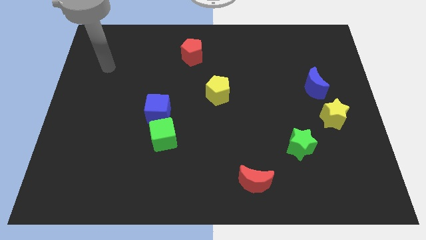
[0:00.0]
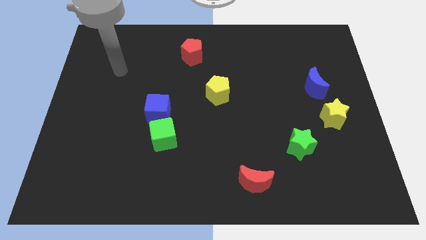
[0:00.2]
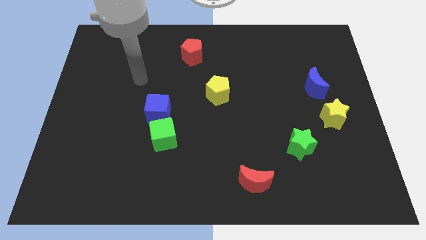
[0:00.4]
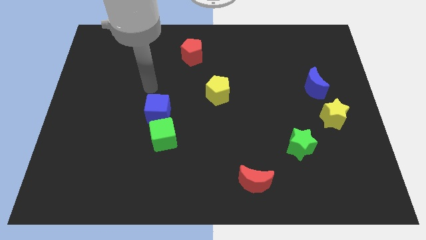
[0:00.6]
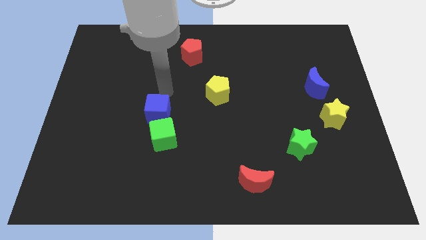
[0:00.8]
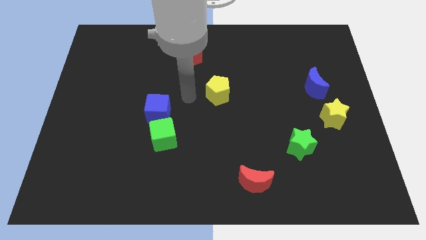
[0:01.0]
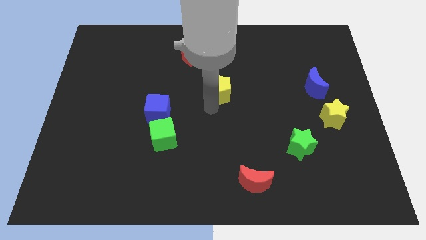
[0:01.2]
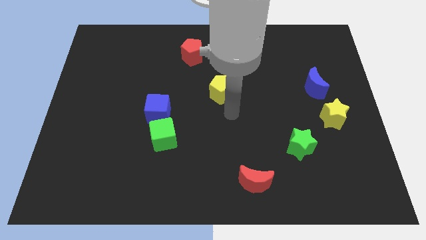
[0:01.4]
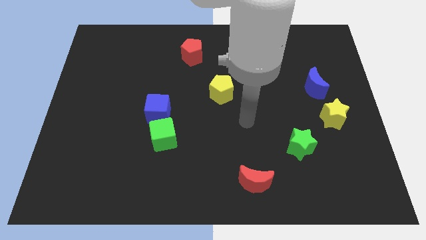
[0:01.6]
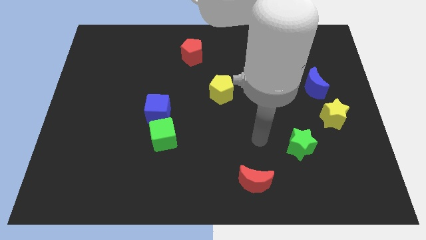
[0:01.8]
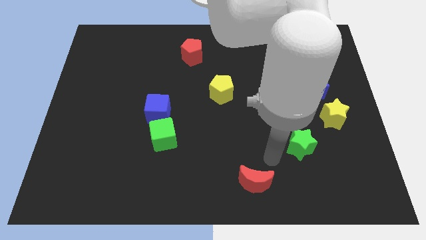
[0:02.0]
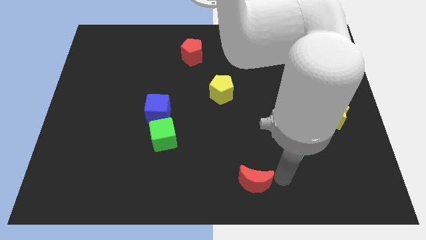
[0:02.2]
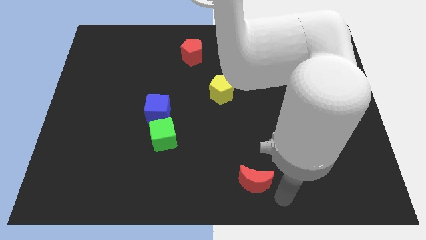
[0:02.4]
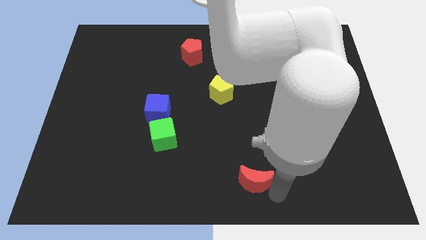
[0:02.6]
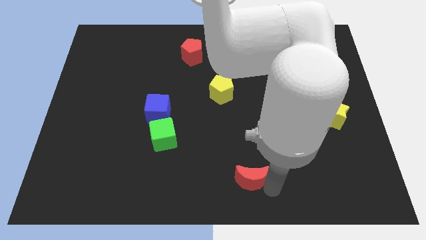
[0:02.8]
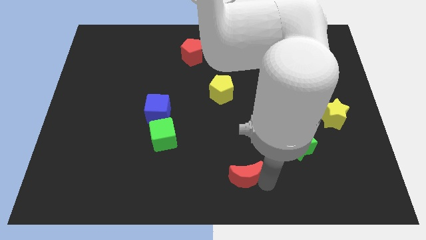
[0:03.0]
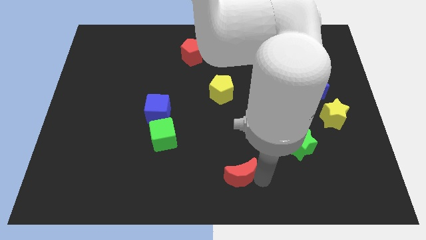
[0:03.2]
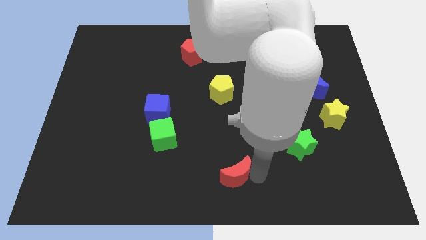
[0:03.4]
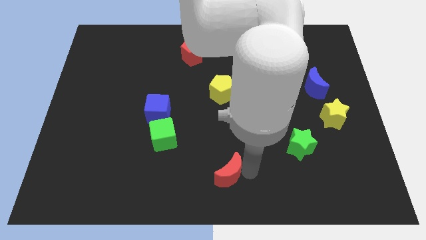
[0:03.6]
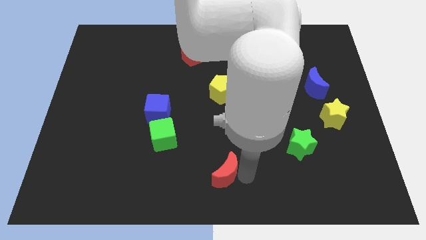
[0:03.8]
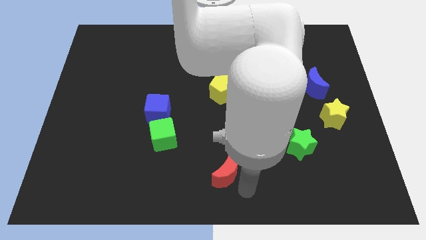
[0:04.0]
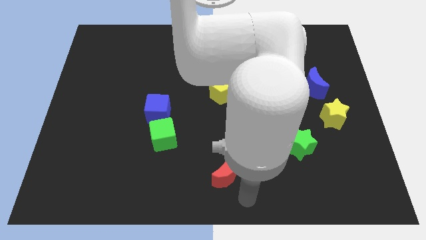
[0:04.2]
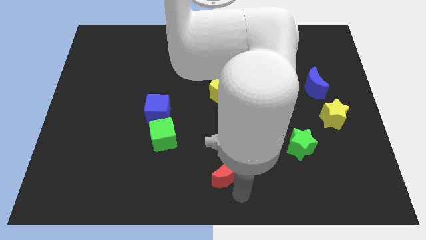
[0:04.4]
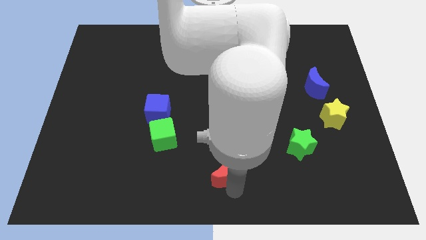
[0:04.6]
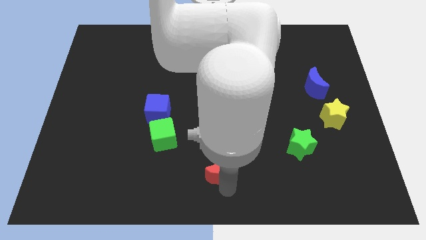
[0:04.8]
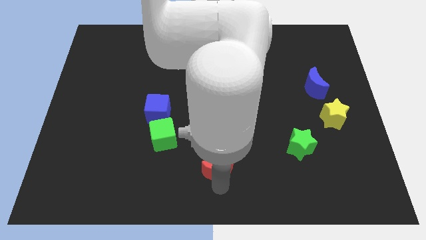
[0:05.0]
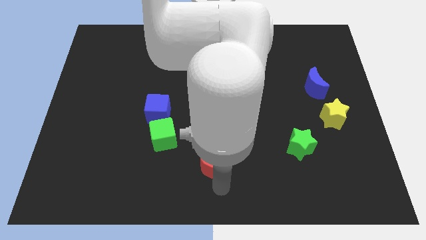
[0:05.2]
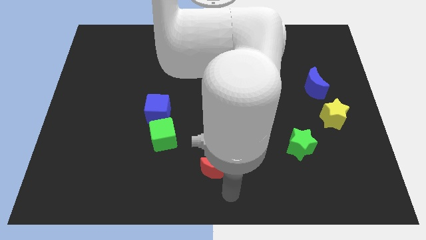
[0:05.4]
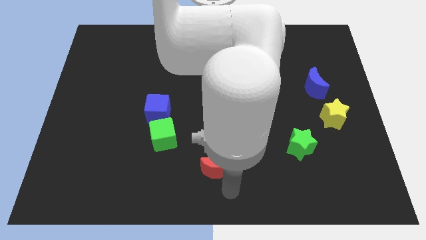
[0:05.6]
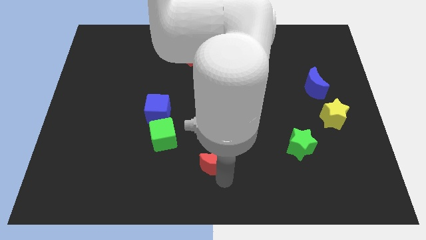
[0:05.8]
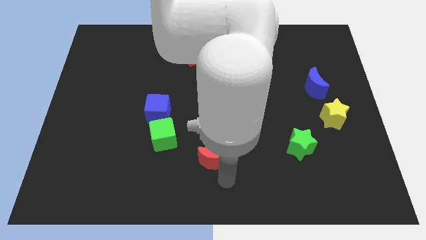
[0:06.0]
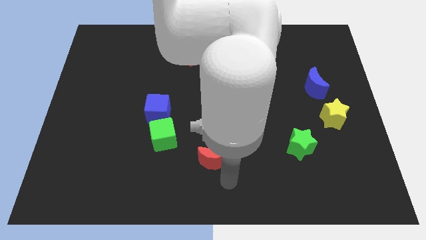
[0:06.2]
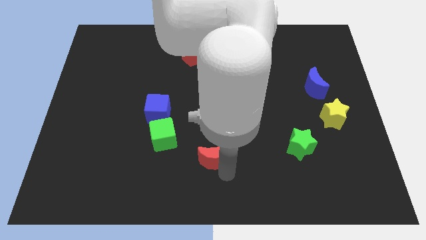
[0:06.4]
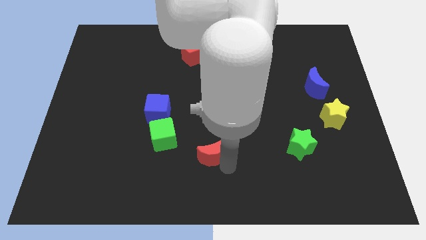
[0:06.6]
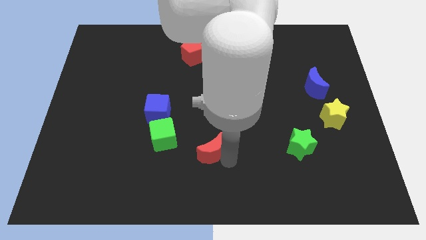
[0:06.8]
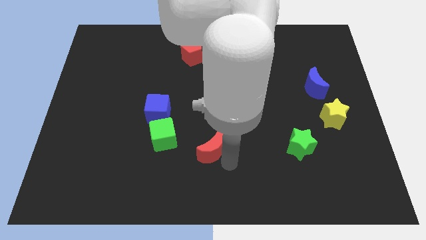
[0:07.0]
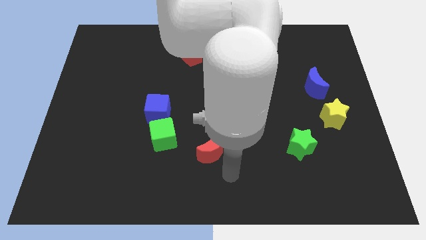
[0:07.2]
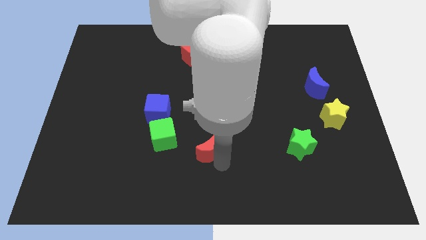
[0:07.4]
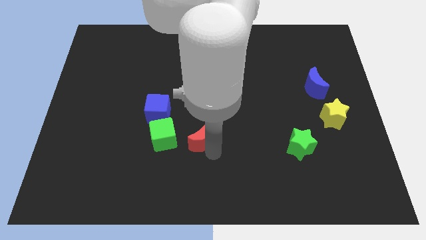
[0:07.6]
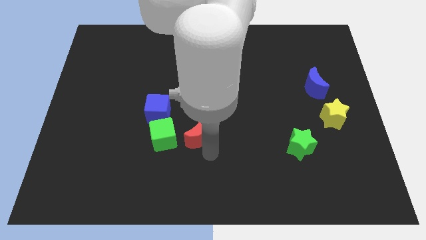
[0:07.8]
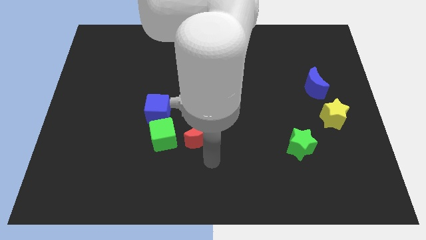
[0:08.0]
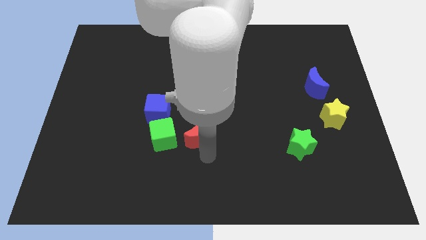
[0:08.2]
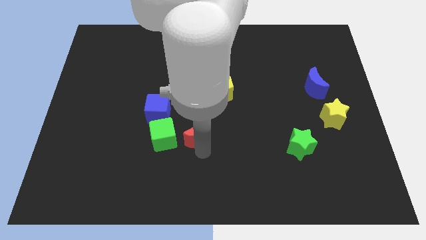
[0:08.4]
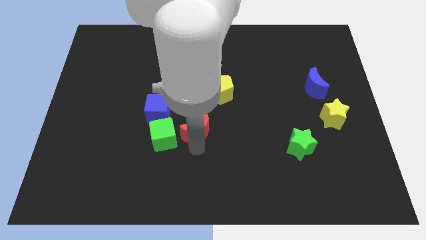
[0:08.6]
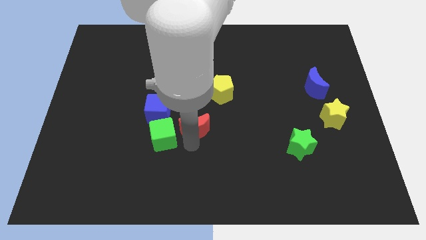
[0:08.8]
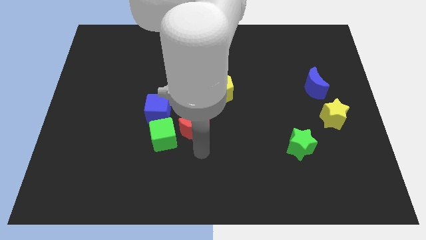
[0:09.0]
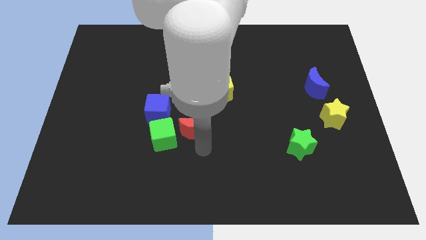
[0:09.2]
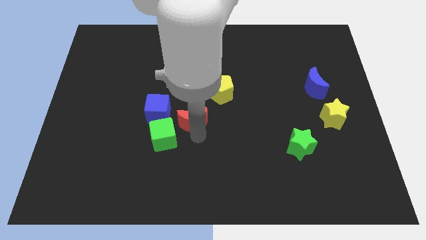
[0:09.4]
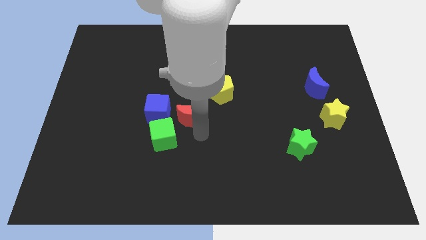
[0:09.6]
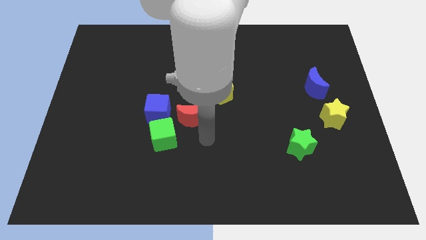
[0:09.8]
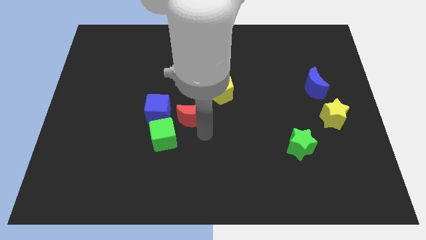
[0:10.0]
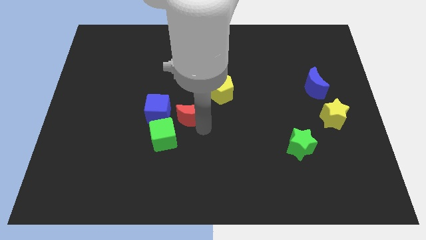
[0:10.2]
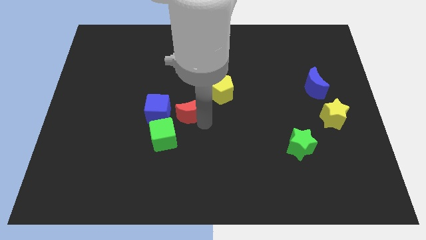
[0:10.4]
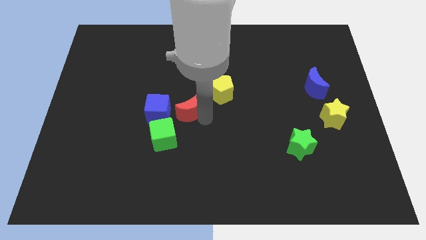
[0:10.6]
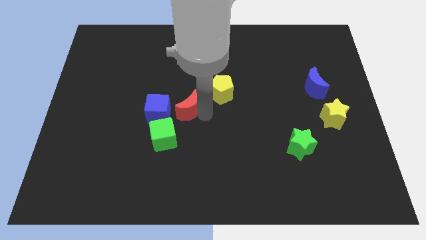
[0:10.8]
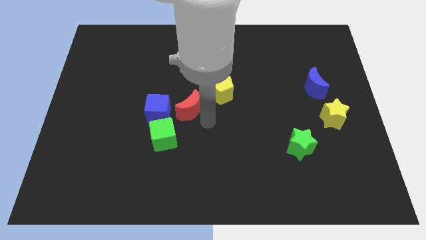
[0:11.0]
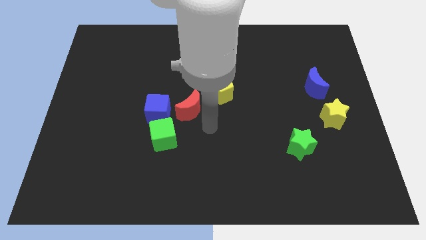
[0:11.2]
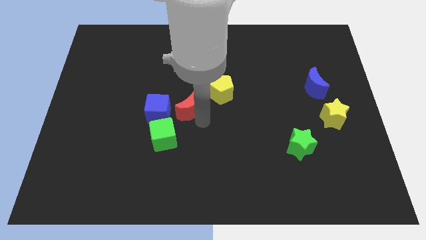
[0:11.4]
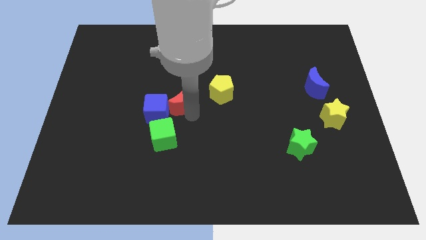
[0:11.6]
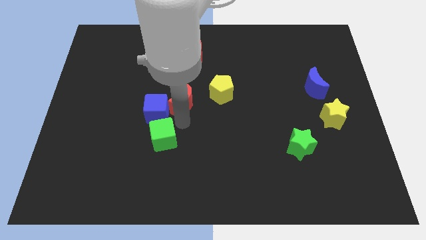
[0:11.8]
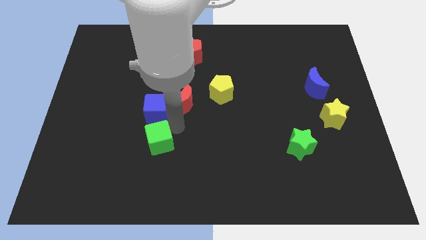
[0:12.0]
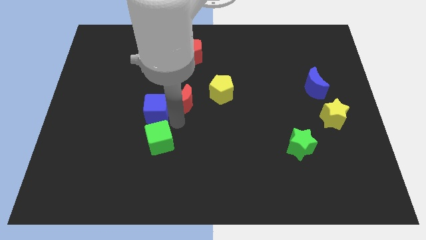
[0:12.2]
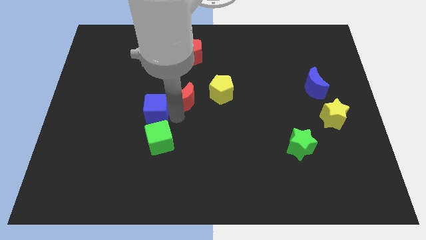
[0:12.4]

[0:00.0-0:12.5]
push the red moon to the bottom of the red pentagon

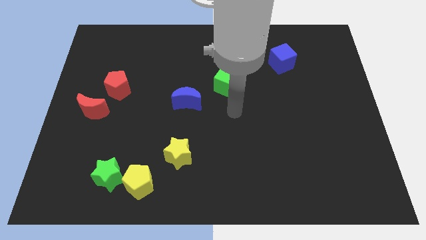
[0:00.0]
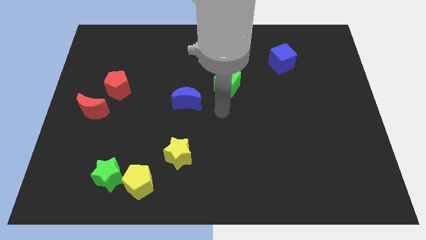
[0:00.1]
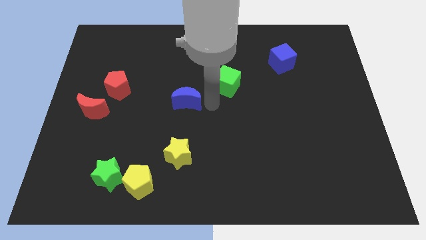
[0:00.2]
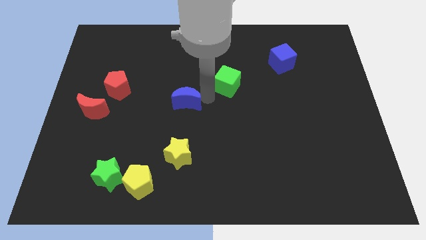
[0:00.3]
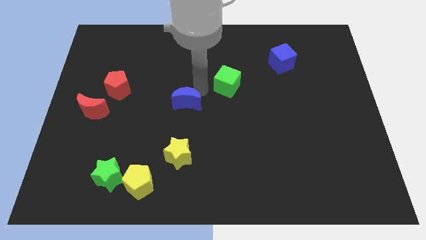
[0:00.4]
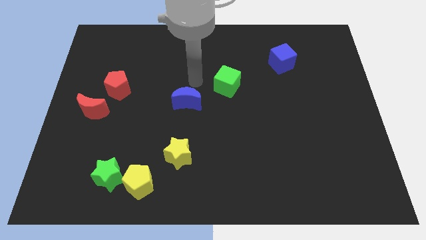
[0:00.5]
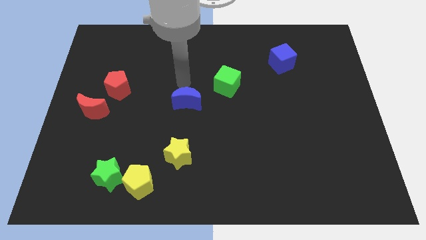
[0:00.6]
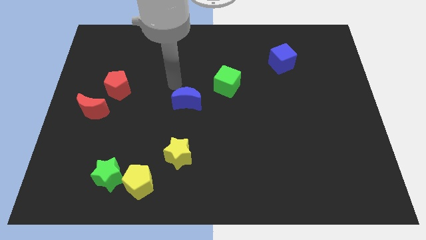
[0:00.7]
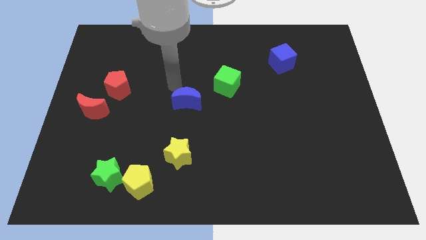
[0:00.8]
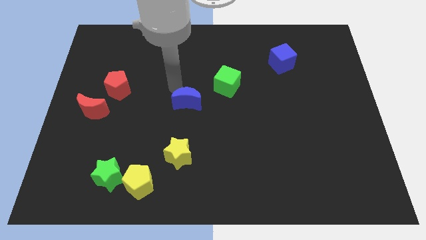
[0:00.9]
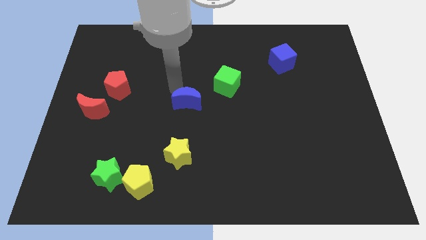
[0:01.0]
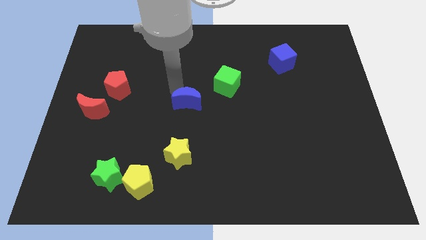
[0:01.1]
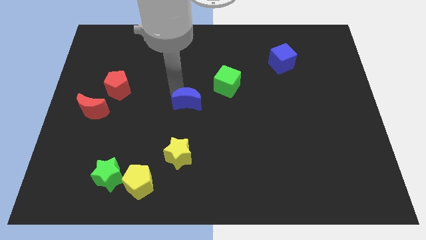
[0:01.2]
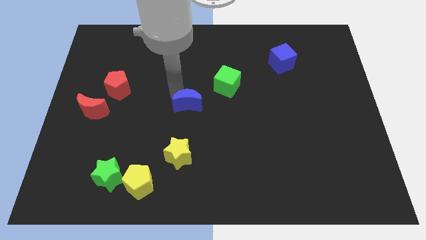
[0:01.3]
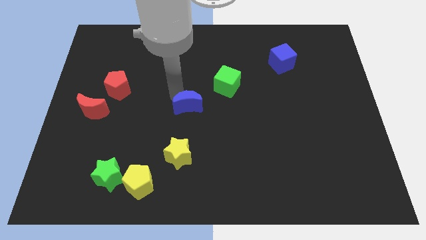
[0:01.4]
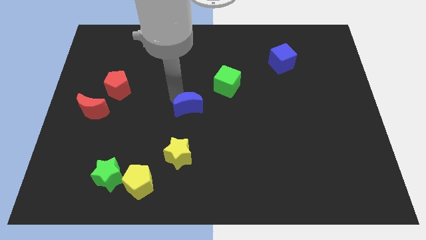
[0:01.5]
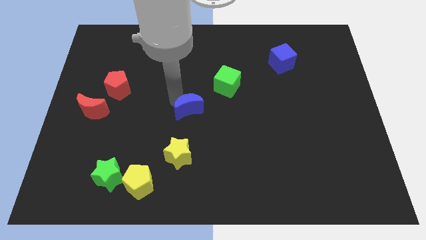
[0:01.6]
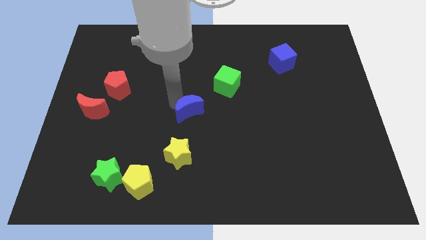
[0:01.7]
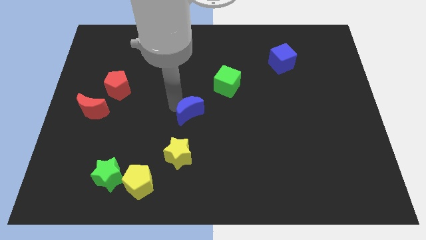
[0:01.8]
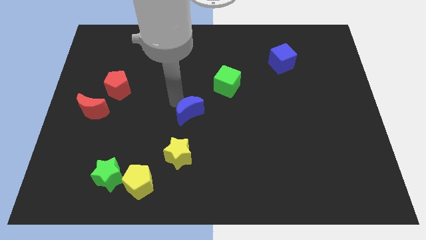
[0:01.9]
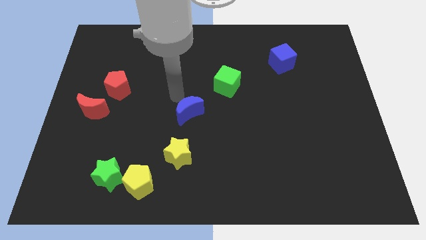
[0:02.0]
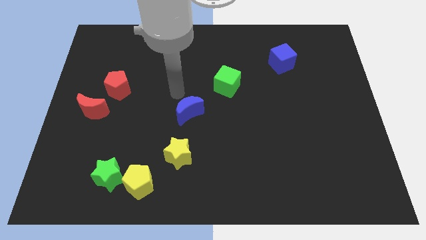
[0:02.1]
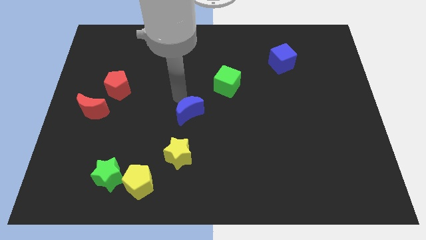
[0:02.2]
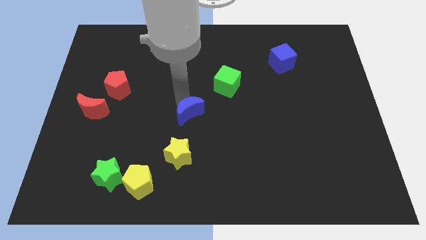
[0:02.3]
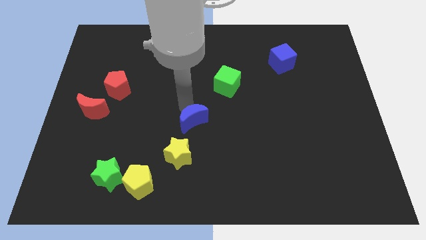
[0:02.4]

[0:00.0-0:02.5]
put the blue moon to the top right side of the yellow star
